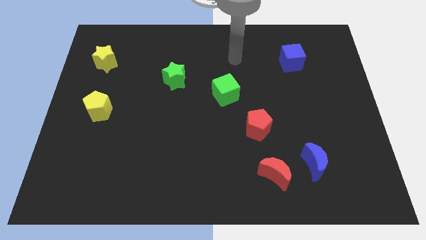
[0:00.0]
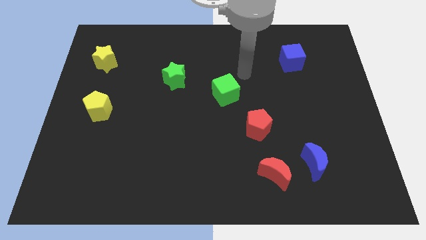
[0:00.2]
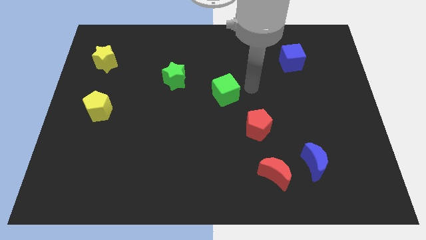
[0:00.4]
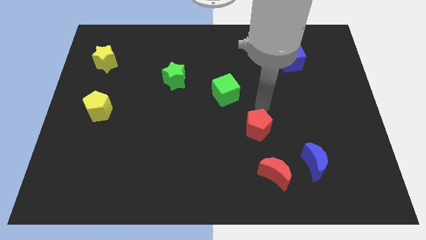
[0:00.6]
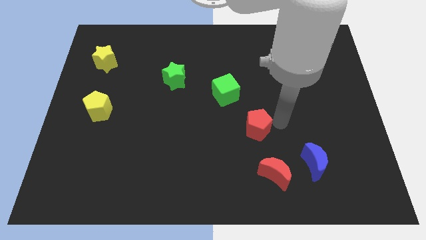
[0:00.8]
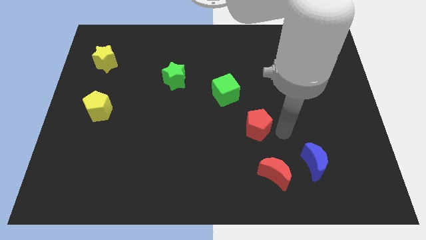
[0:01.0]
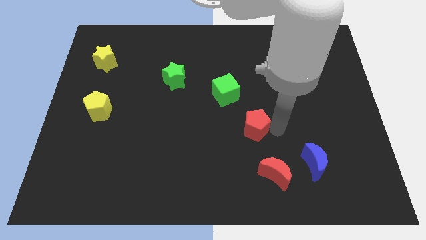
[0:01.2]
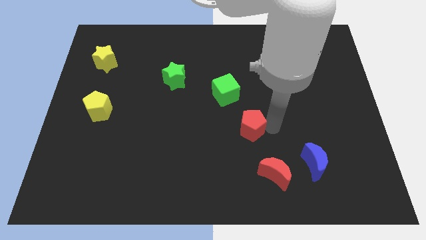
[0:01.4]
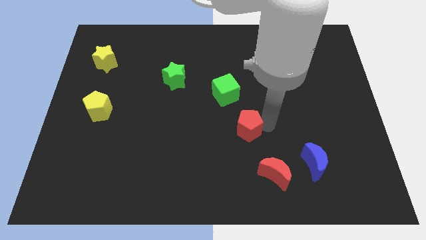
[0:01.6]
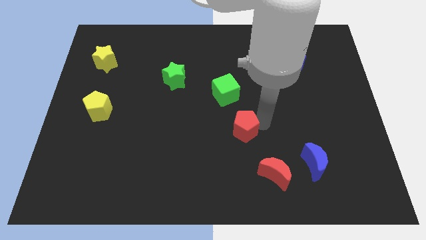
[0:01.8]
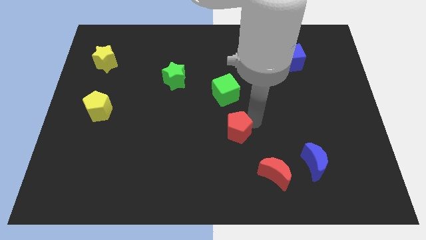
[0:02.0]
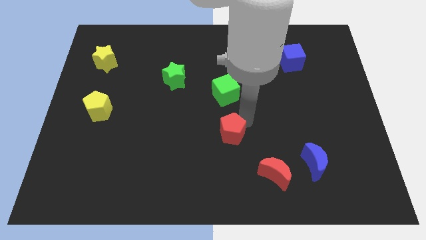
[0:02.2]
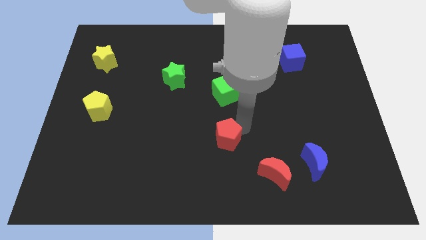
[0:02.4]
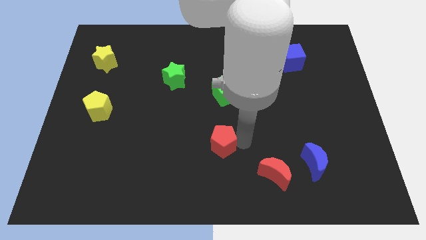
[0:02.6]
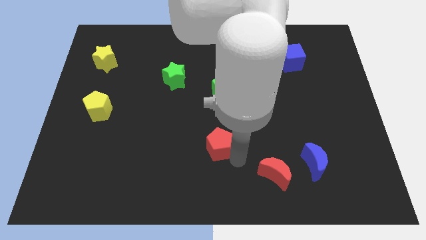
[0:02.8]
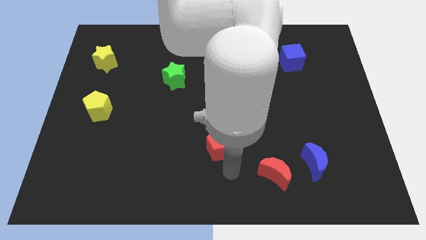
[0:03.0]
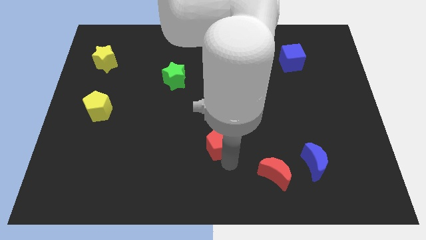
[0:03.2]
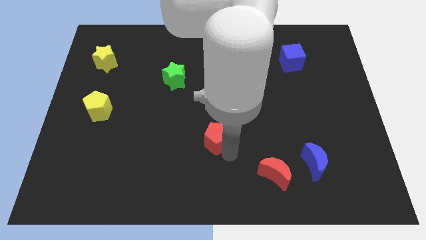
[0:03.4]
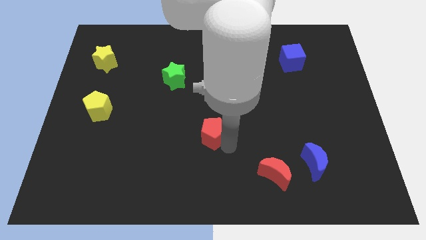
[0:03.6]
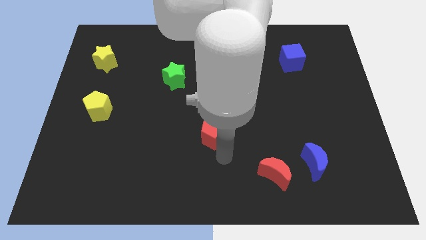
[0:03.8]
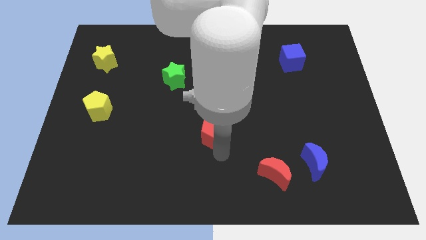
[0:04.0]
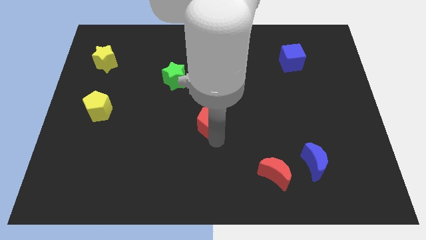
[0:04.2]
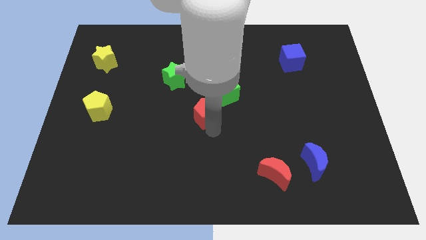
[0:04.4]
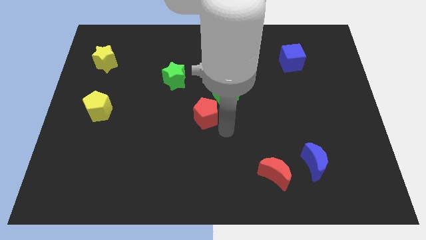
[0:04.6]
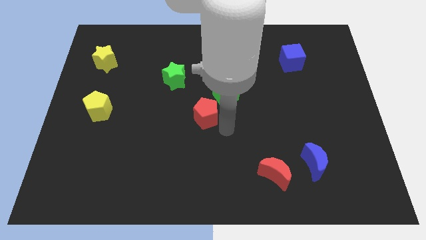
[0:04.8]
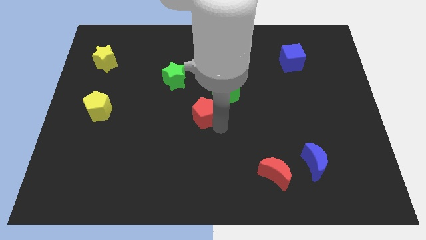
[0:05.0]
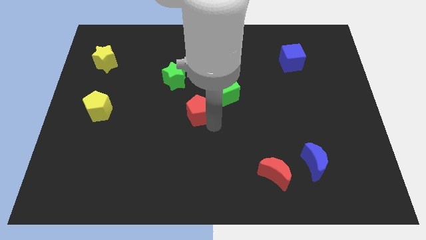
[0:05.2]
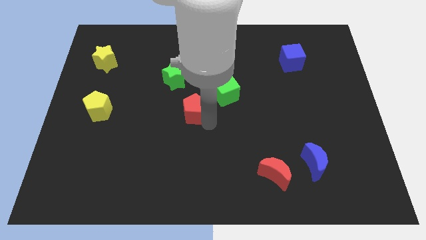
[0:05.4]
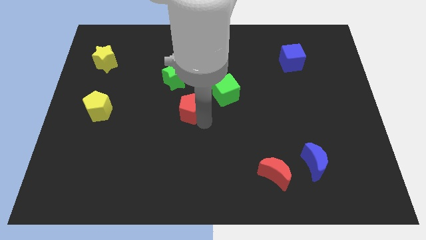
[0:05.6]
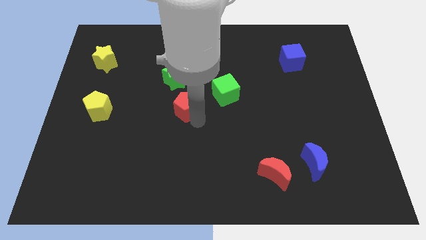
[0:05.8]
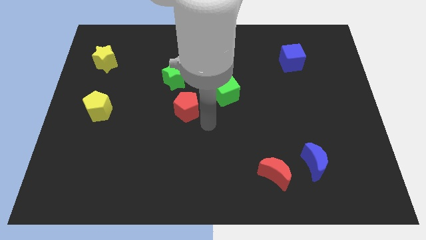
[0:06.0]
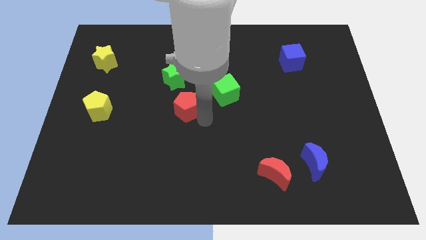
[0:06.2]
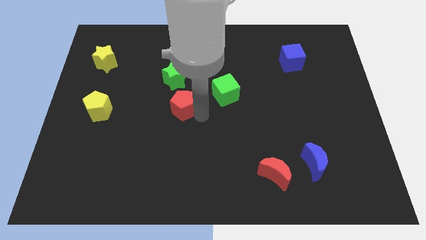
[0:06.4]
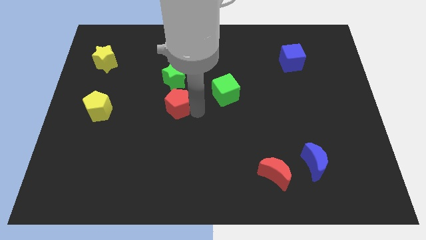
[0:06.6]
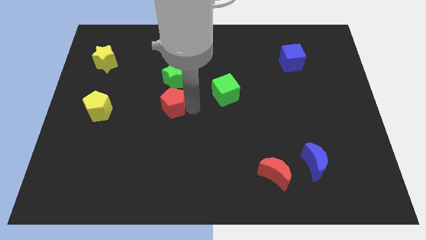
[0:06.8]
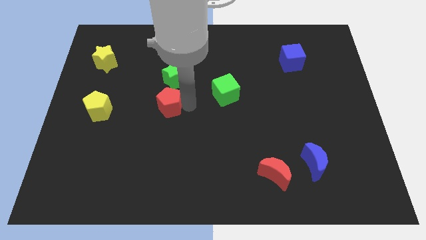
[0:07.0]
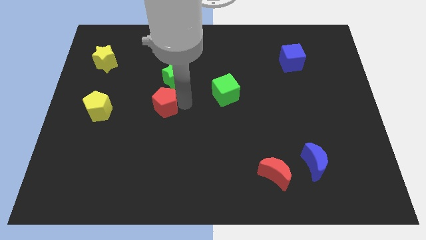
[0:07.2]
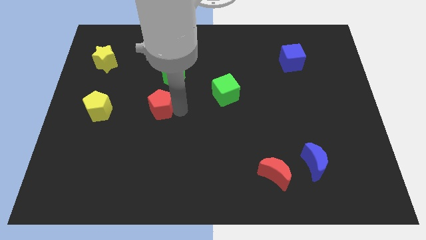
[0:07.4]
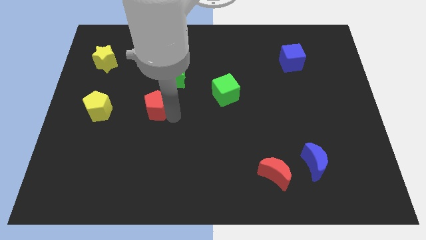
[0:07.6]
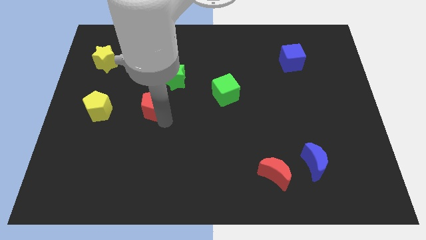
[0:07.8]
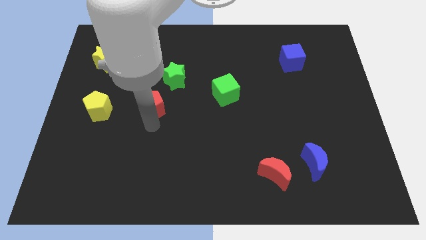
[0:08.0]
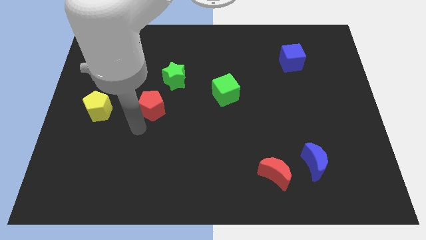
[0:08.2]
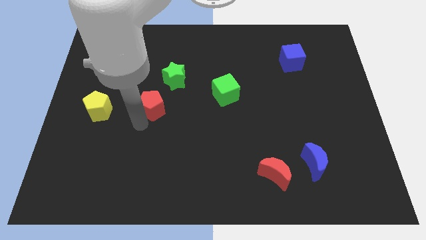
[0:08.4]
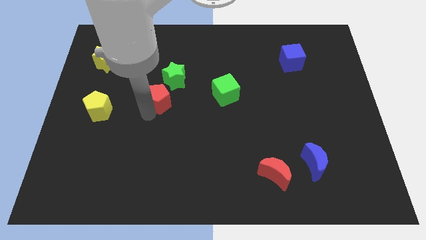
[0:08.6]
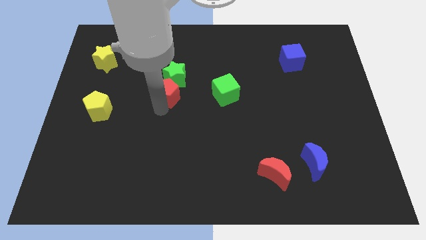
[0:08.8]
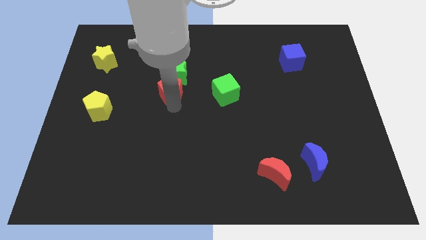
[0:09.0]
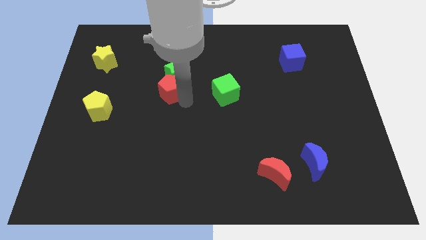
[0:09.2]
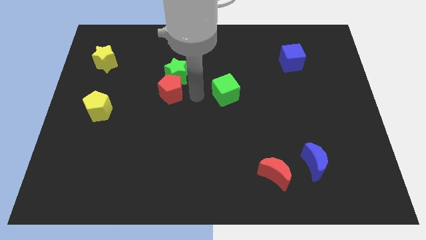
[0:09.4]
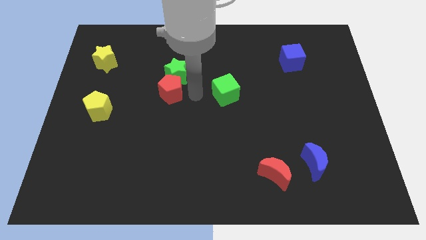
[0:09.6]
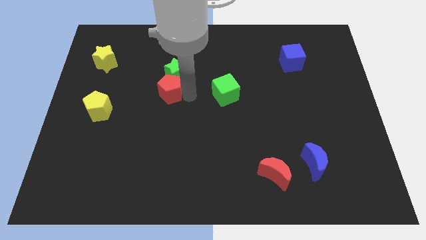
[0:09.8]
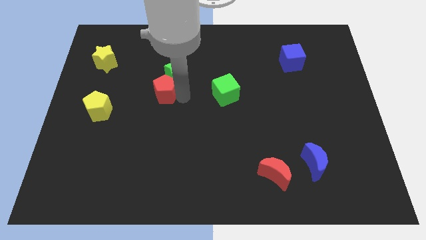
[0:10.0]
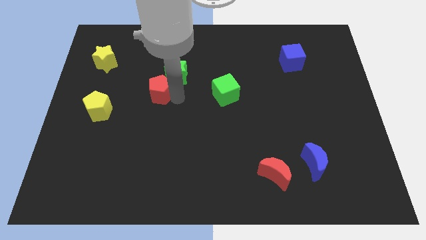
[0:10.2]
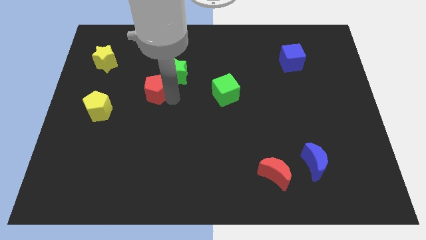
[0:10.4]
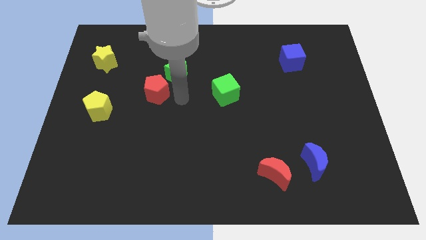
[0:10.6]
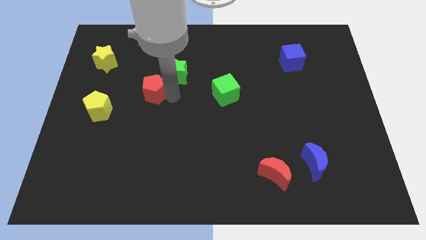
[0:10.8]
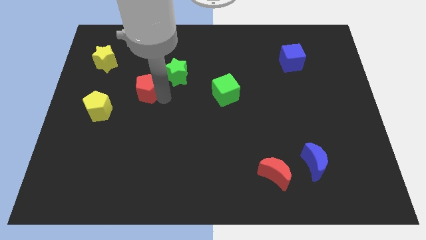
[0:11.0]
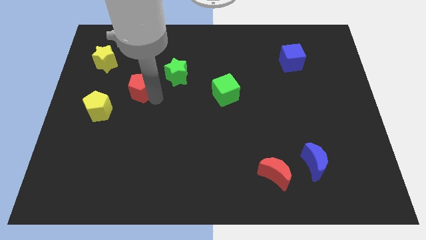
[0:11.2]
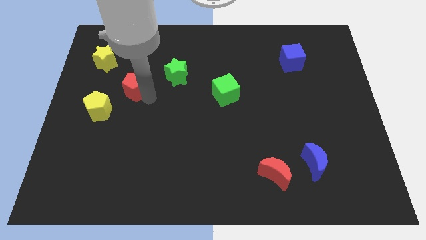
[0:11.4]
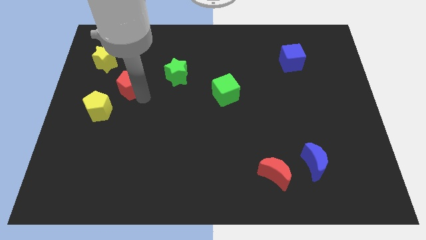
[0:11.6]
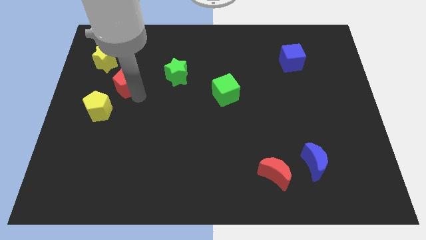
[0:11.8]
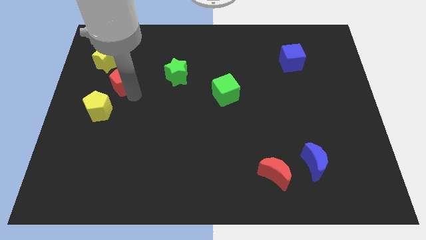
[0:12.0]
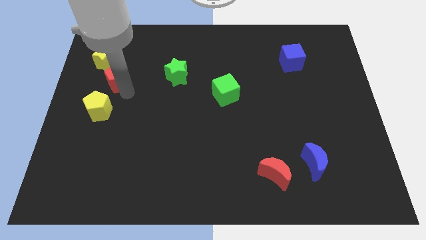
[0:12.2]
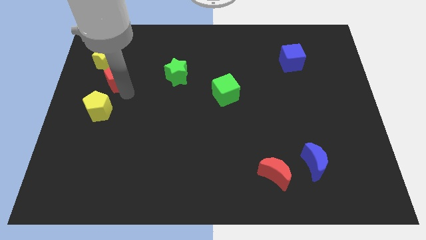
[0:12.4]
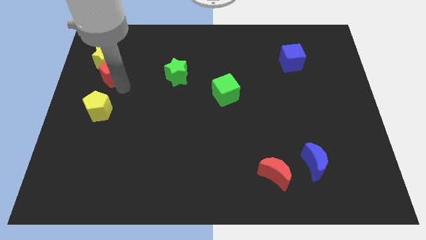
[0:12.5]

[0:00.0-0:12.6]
push the red pentagon close to the yellow star

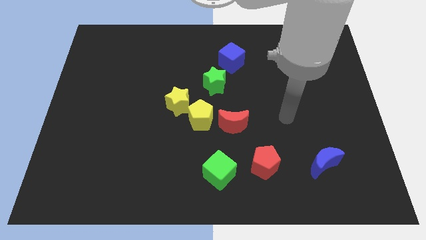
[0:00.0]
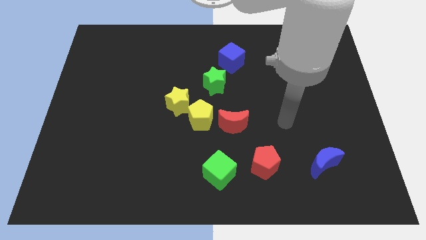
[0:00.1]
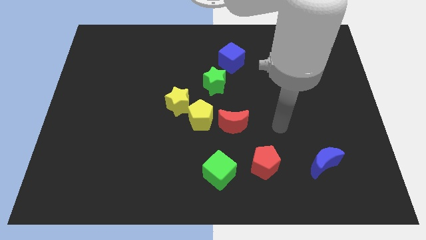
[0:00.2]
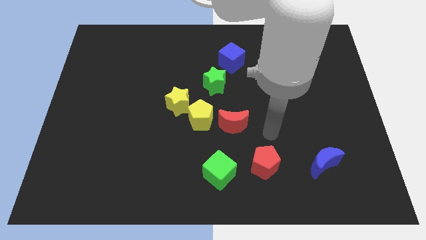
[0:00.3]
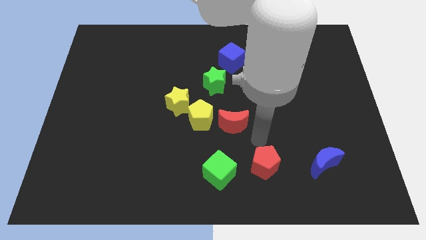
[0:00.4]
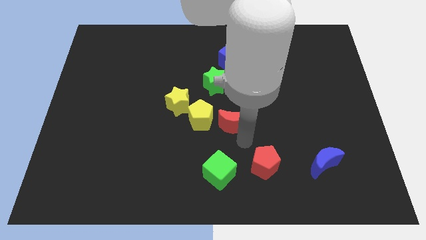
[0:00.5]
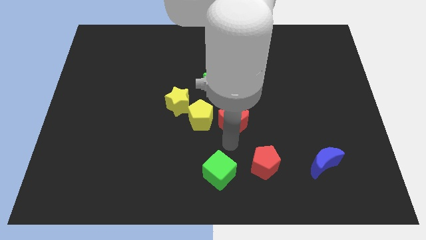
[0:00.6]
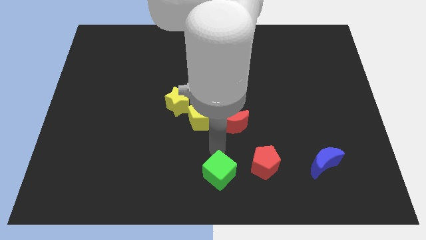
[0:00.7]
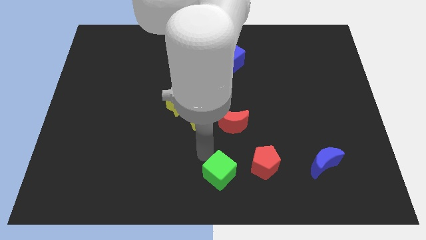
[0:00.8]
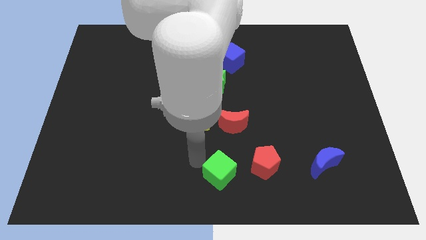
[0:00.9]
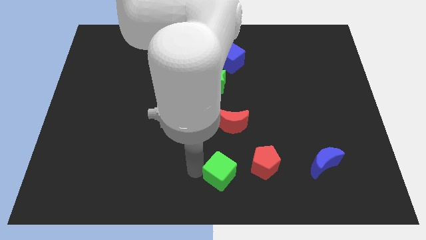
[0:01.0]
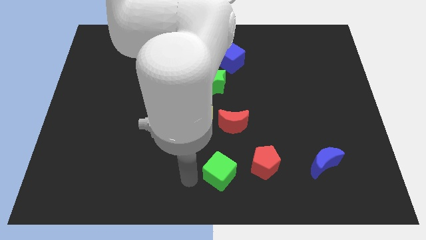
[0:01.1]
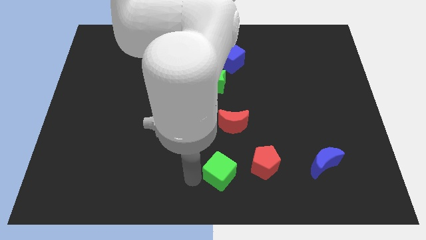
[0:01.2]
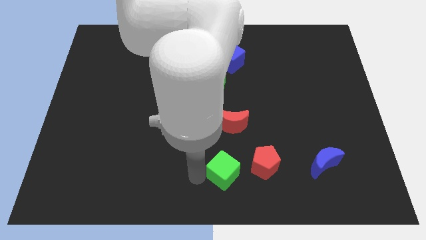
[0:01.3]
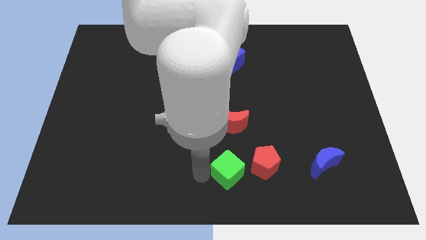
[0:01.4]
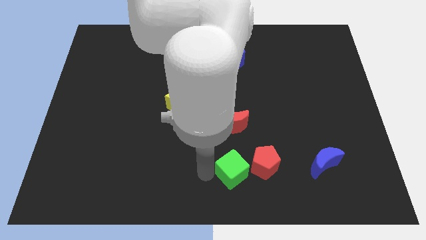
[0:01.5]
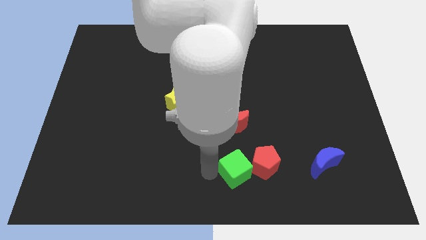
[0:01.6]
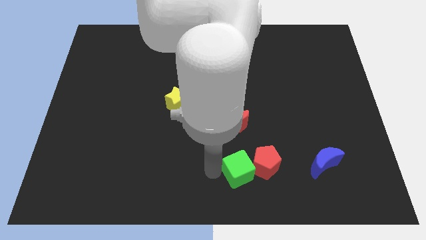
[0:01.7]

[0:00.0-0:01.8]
move the green cube close to the red pentagon
